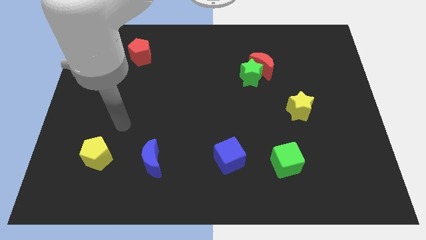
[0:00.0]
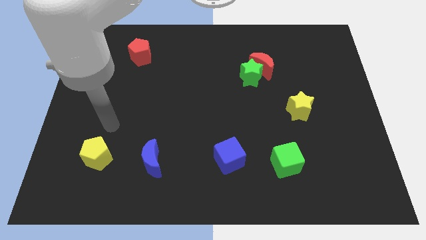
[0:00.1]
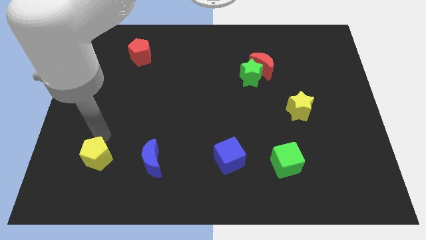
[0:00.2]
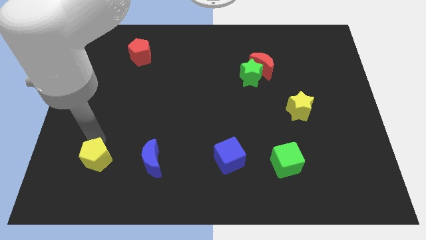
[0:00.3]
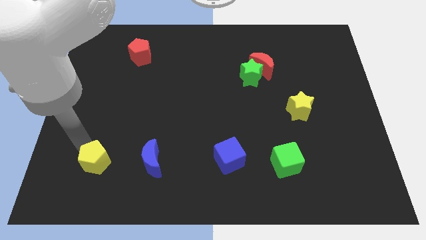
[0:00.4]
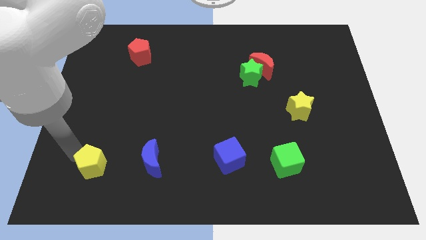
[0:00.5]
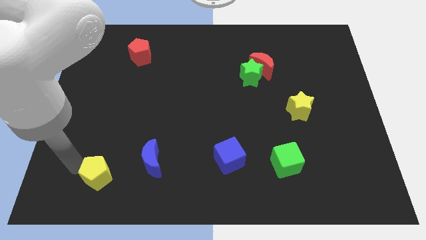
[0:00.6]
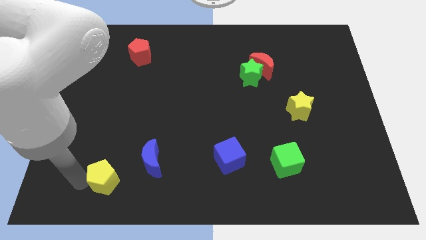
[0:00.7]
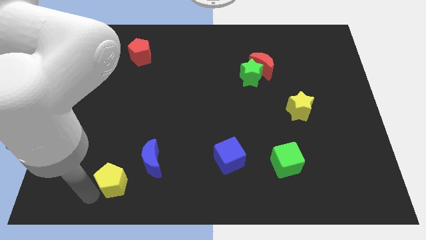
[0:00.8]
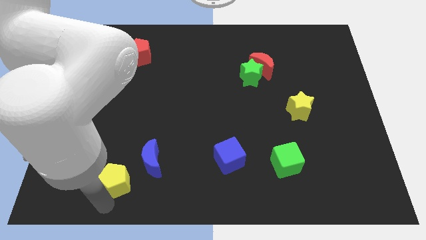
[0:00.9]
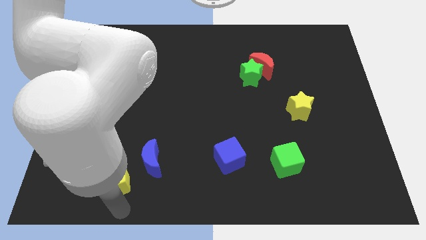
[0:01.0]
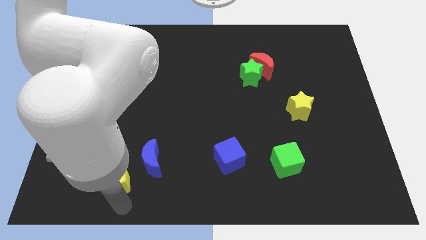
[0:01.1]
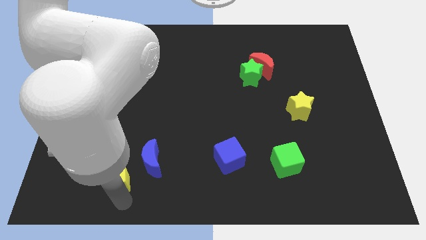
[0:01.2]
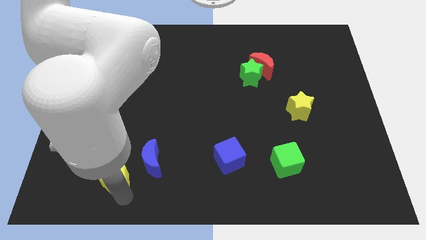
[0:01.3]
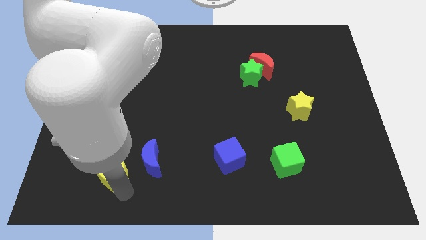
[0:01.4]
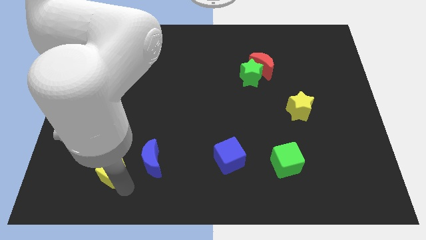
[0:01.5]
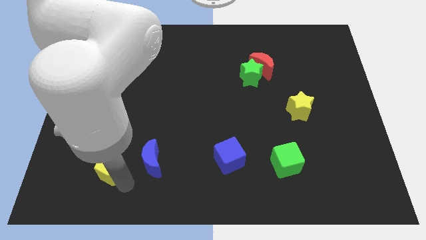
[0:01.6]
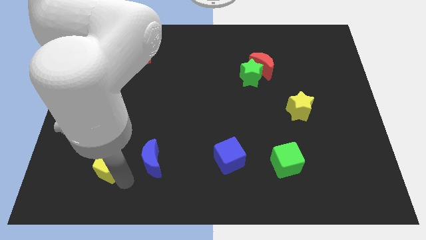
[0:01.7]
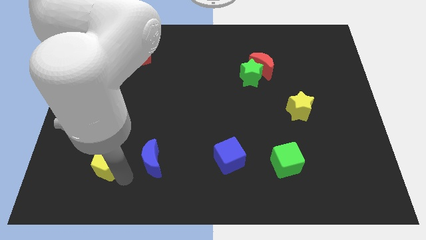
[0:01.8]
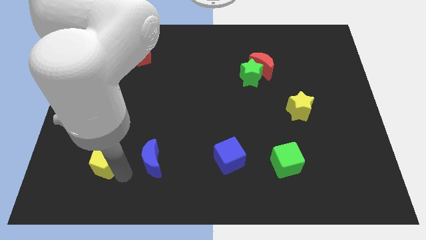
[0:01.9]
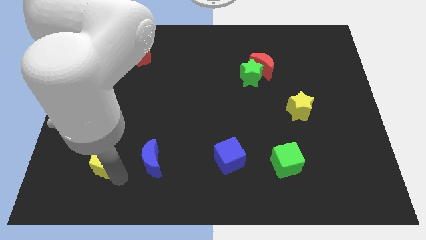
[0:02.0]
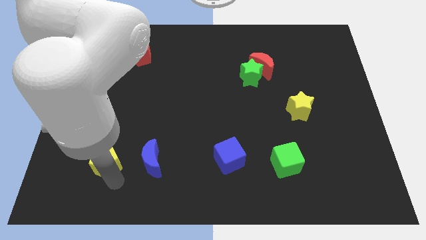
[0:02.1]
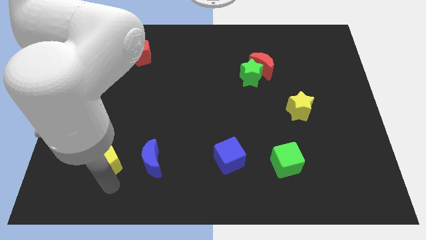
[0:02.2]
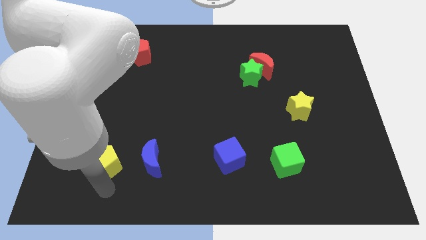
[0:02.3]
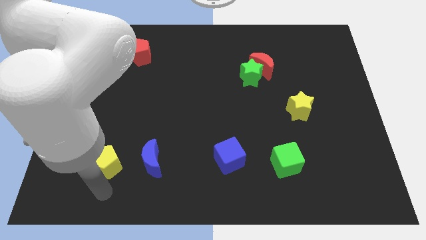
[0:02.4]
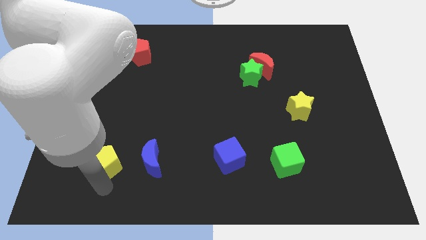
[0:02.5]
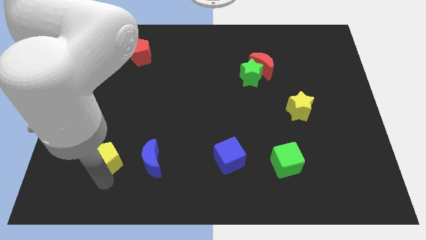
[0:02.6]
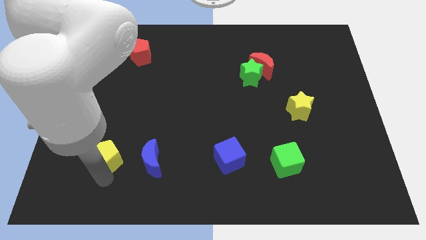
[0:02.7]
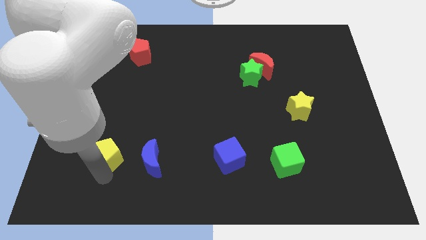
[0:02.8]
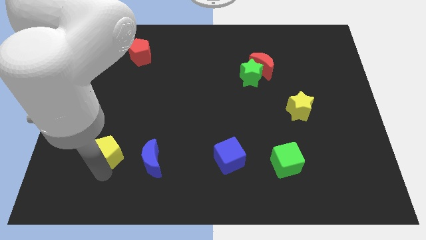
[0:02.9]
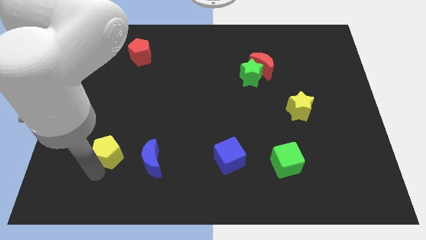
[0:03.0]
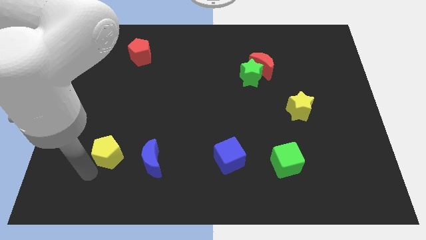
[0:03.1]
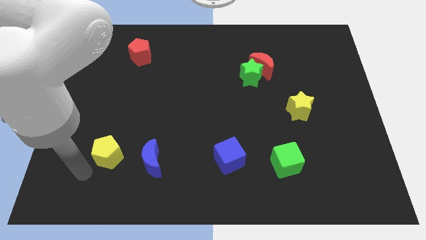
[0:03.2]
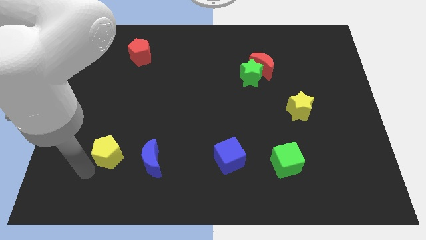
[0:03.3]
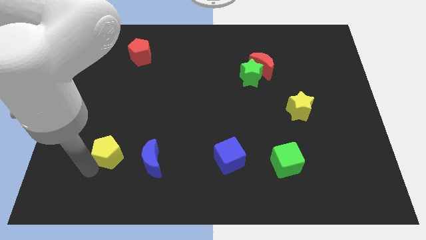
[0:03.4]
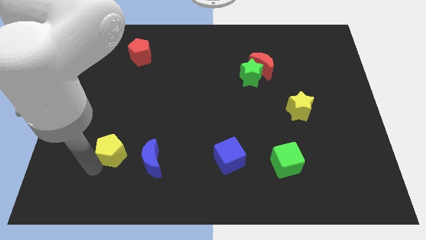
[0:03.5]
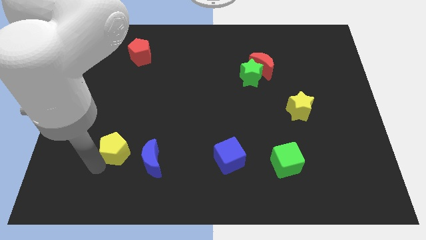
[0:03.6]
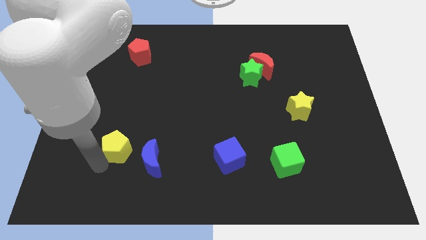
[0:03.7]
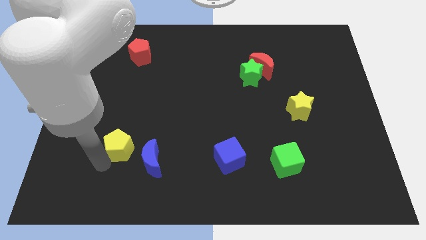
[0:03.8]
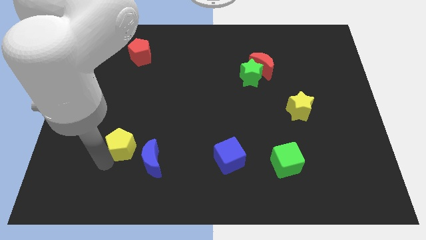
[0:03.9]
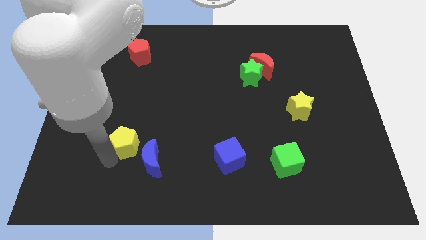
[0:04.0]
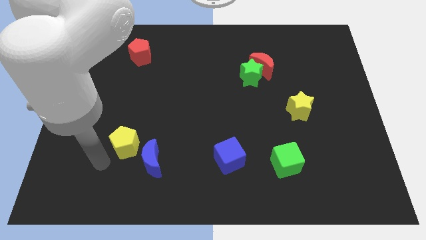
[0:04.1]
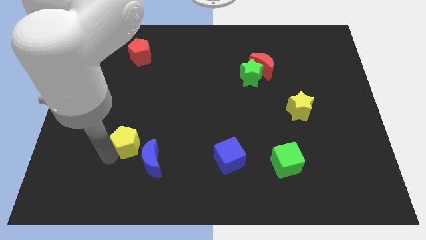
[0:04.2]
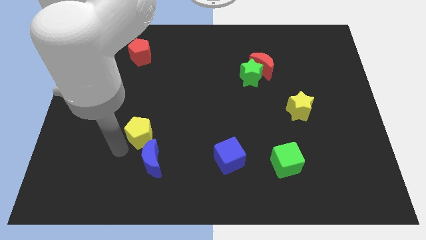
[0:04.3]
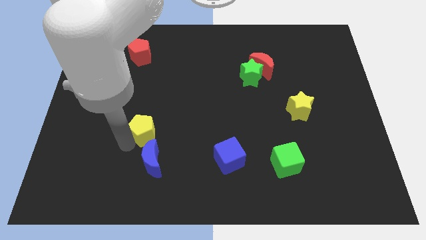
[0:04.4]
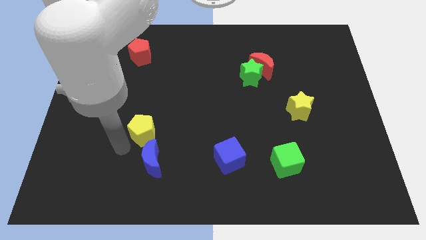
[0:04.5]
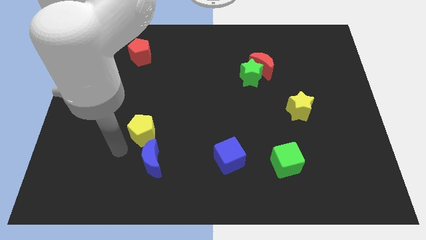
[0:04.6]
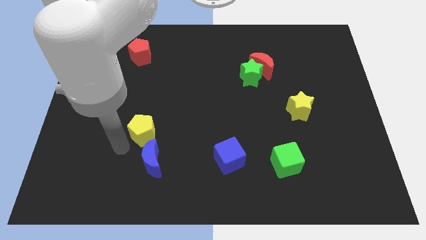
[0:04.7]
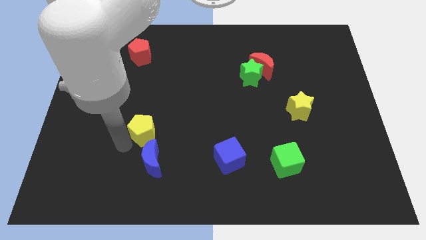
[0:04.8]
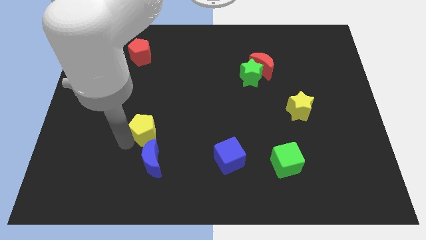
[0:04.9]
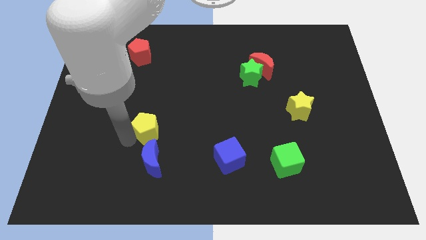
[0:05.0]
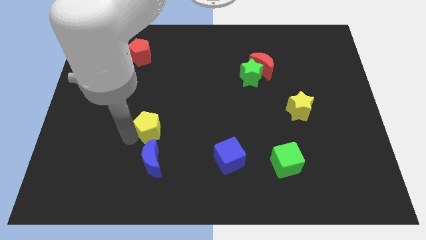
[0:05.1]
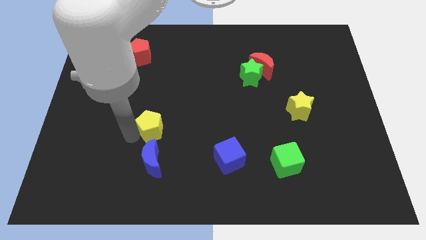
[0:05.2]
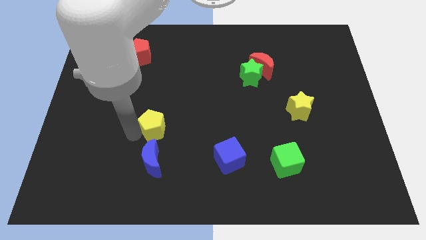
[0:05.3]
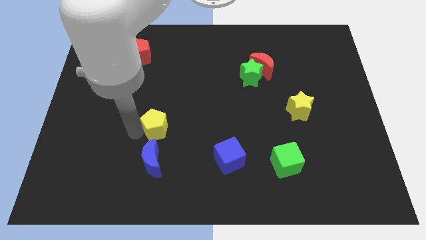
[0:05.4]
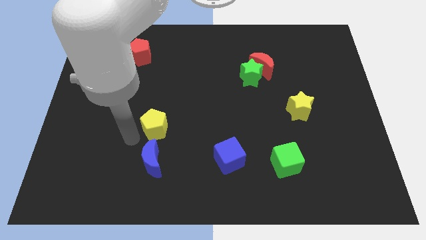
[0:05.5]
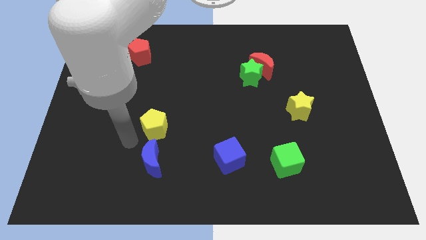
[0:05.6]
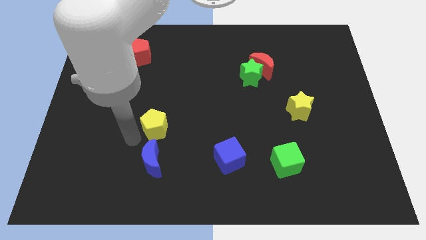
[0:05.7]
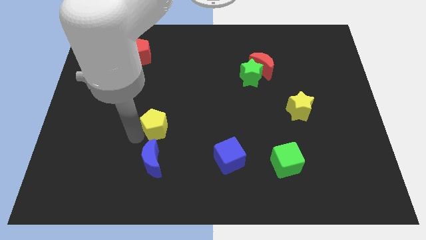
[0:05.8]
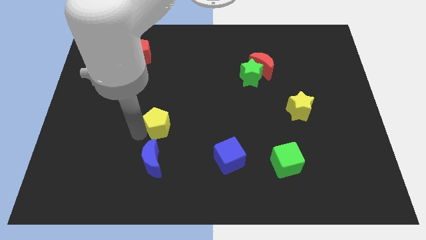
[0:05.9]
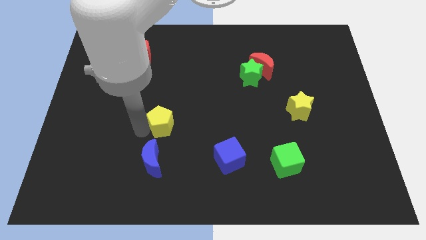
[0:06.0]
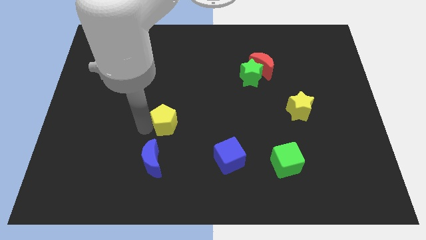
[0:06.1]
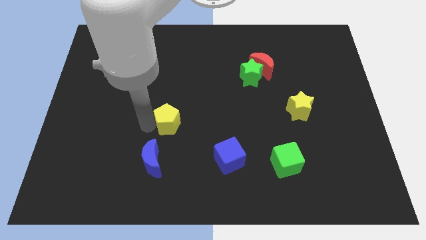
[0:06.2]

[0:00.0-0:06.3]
put the yellow pentagon to the middle
